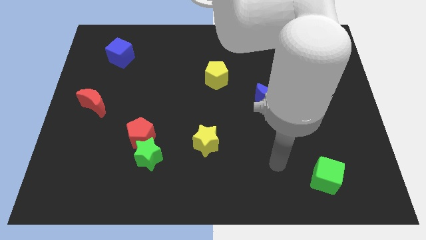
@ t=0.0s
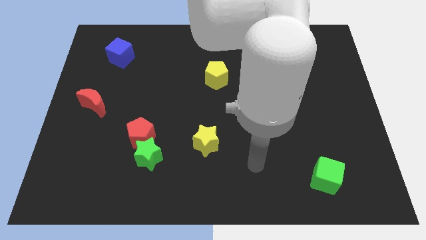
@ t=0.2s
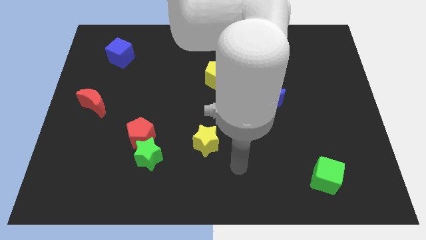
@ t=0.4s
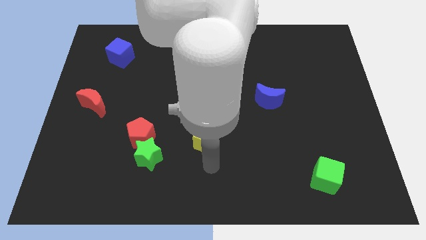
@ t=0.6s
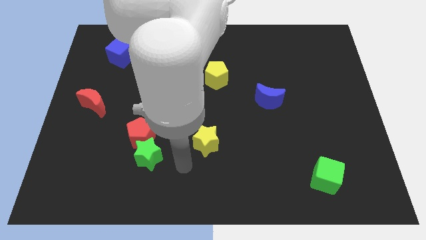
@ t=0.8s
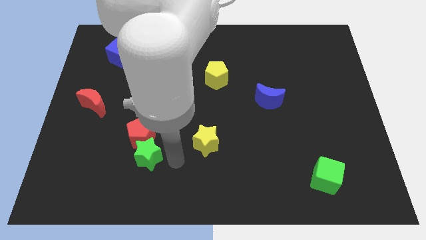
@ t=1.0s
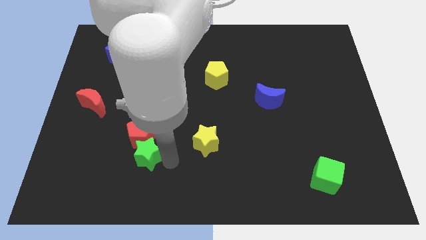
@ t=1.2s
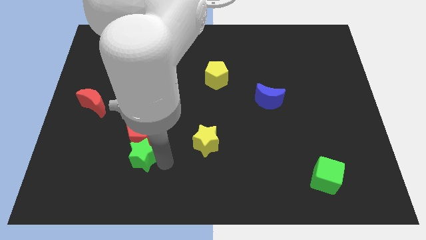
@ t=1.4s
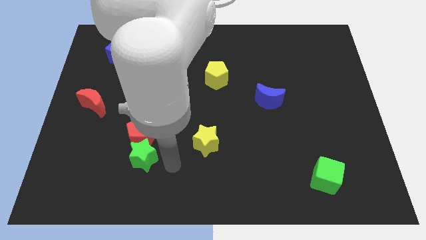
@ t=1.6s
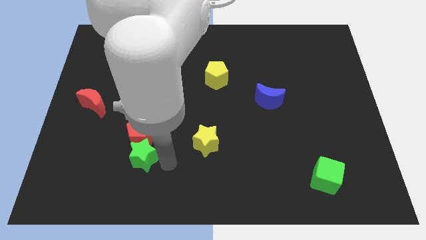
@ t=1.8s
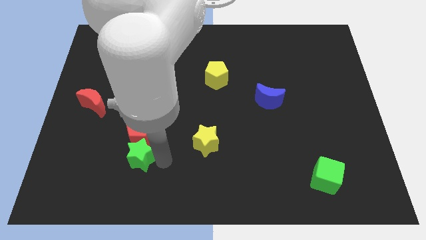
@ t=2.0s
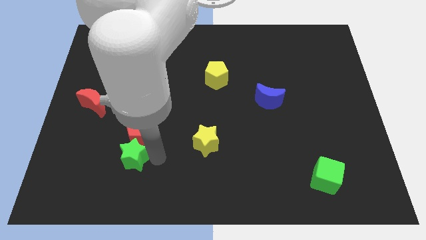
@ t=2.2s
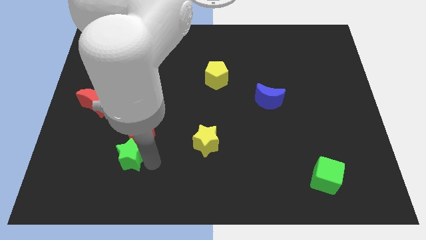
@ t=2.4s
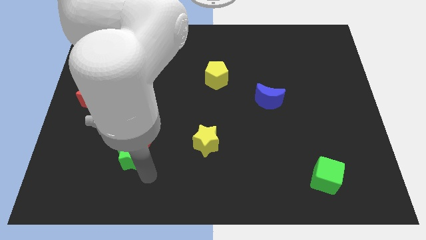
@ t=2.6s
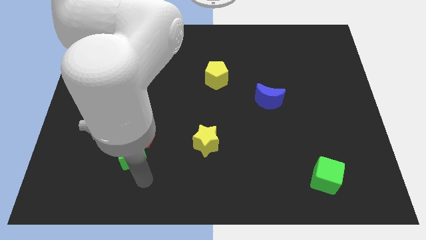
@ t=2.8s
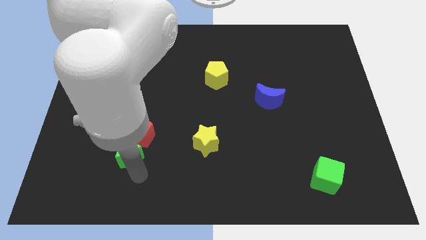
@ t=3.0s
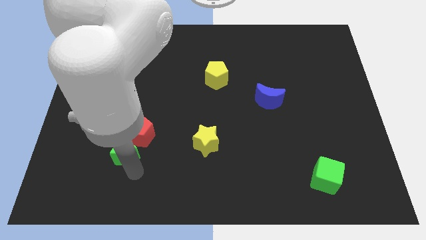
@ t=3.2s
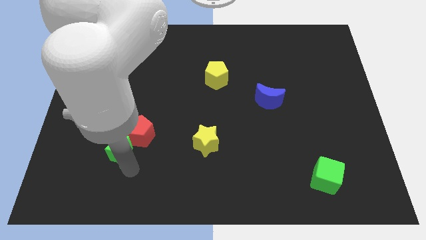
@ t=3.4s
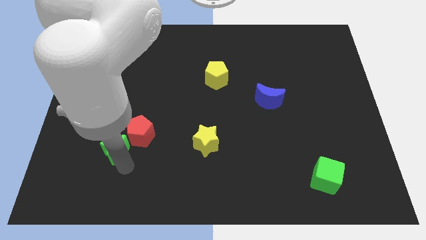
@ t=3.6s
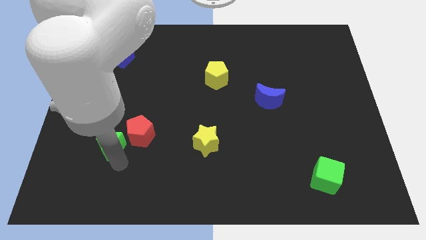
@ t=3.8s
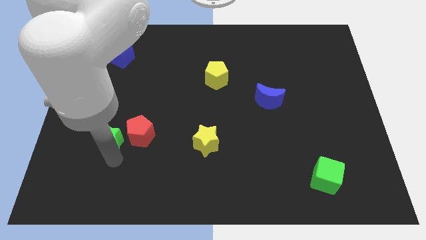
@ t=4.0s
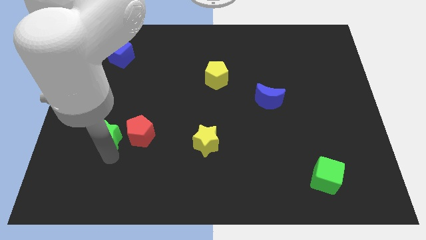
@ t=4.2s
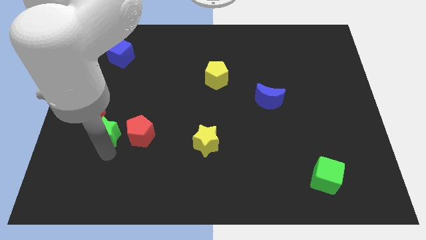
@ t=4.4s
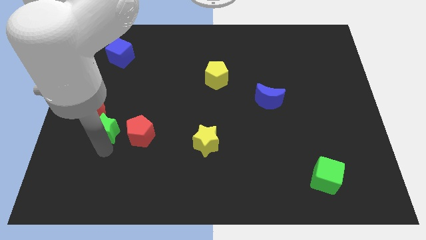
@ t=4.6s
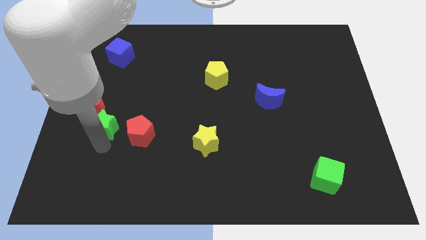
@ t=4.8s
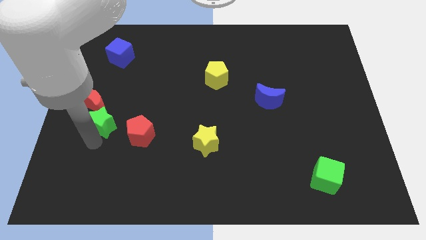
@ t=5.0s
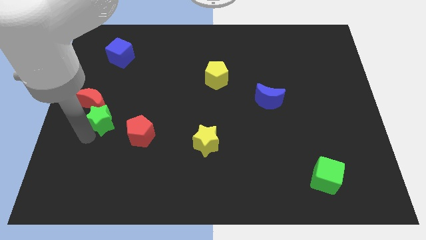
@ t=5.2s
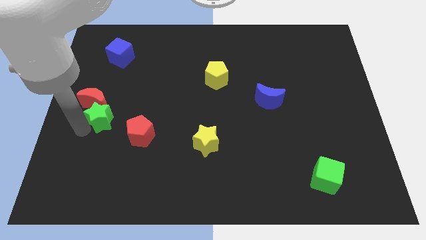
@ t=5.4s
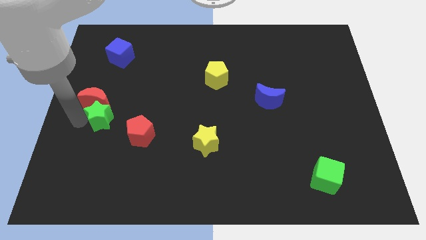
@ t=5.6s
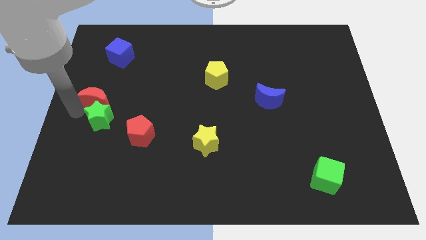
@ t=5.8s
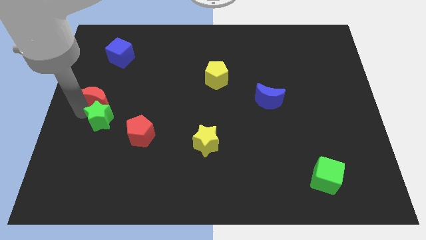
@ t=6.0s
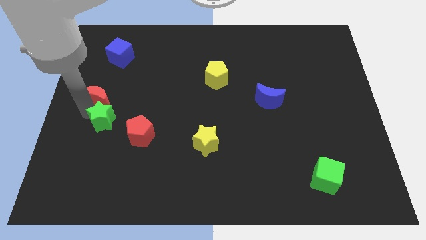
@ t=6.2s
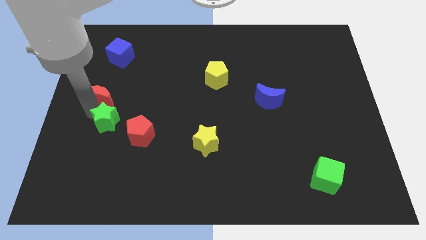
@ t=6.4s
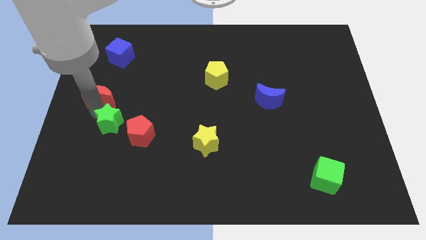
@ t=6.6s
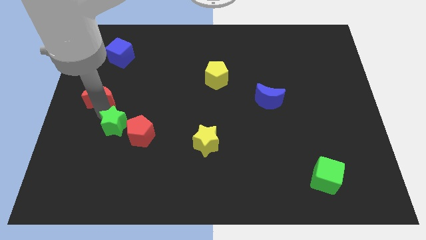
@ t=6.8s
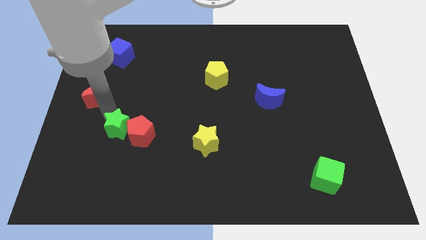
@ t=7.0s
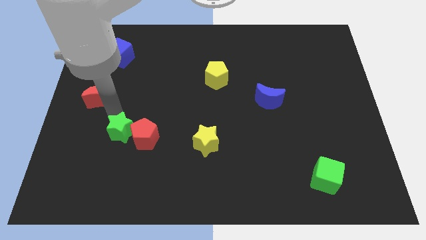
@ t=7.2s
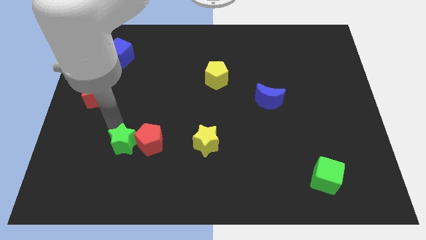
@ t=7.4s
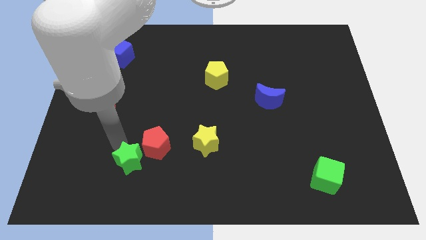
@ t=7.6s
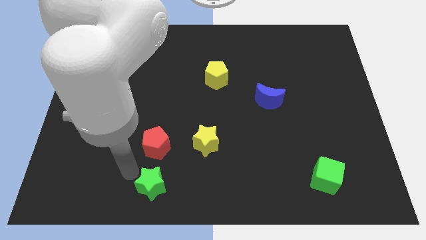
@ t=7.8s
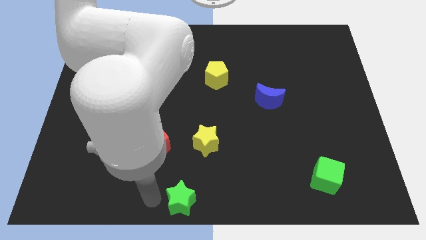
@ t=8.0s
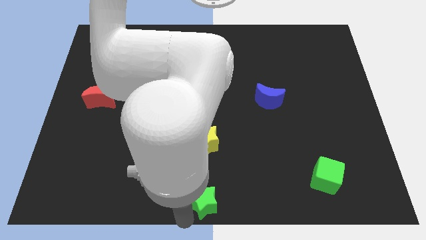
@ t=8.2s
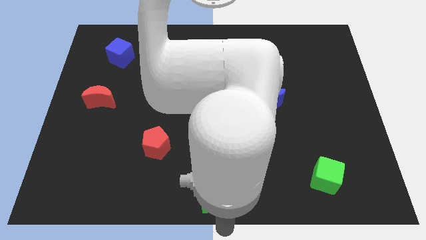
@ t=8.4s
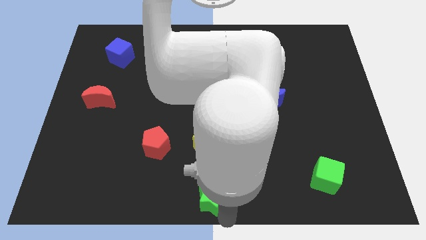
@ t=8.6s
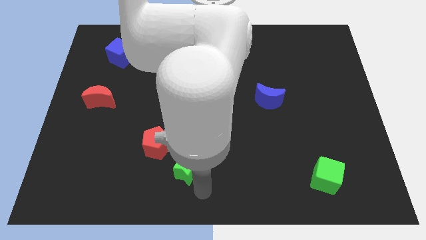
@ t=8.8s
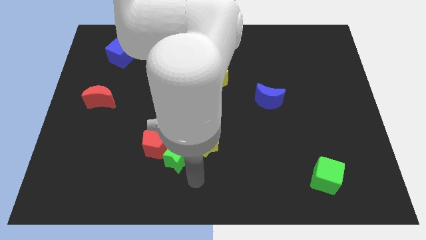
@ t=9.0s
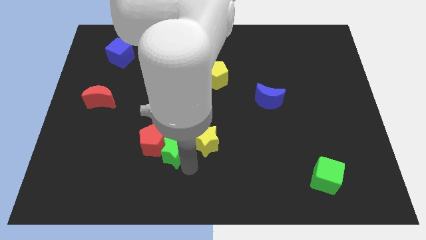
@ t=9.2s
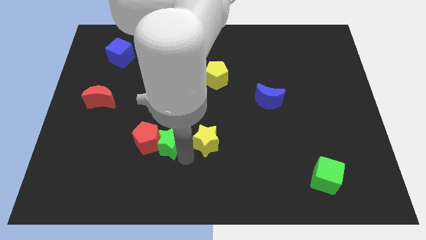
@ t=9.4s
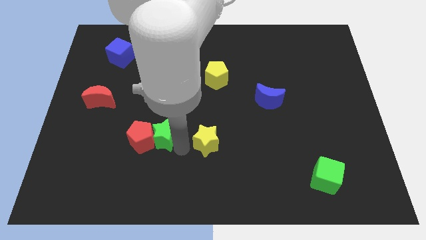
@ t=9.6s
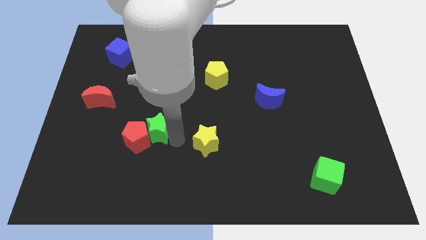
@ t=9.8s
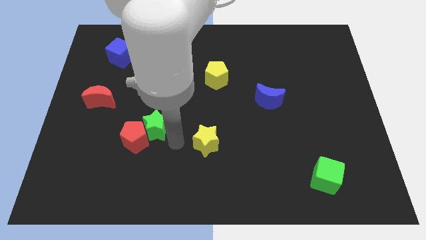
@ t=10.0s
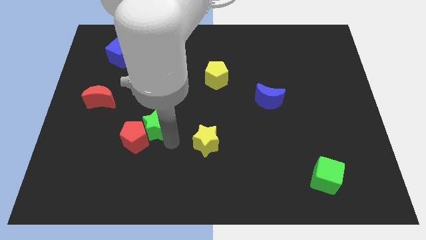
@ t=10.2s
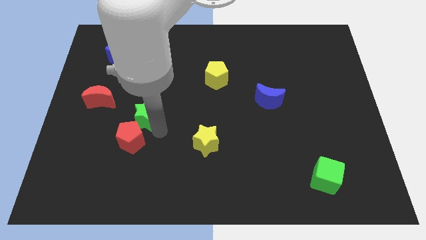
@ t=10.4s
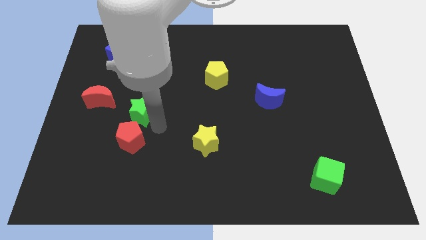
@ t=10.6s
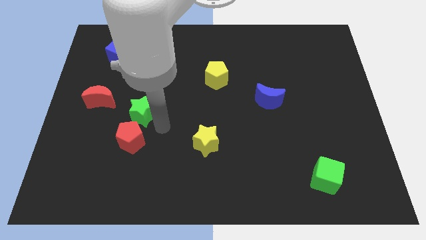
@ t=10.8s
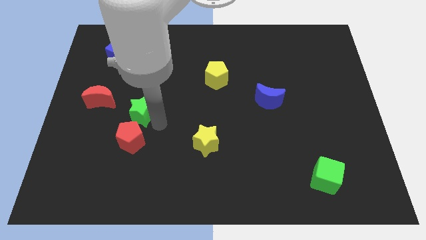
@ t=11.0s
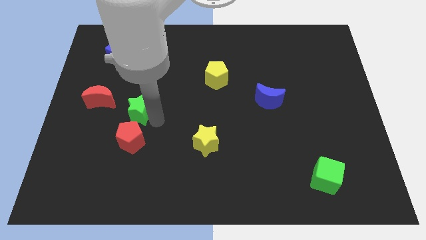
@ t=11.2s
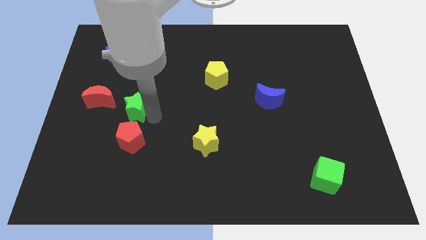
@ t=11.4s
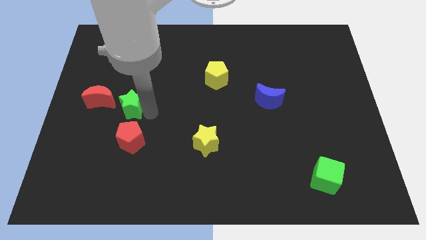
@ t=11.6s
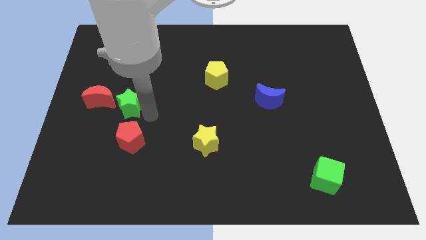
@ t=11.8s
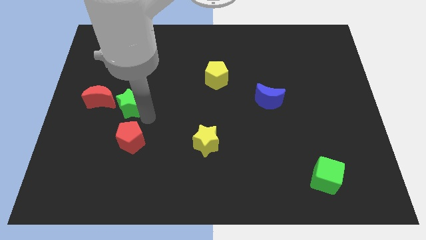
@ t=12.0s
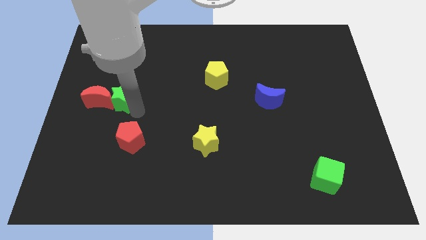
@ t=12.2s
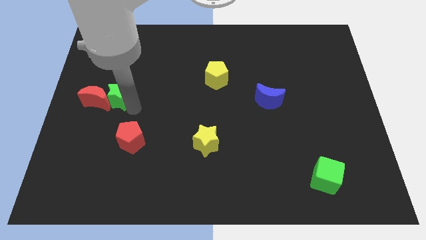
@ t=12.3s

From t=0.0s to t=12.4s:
move the green star to the bottom of the blue cube

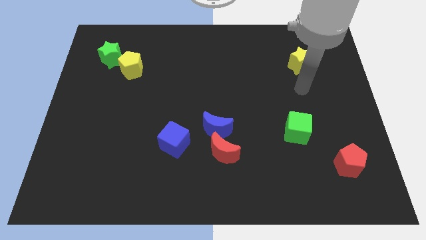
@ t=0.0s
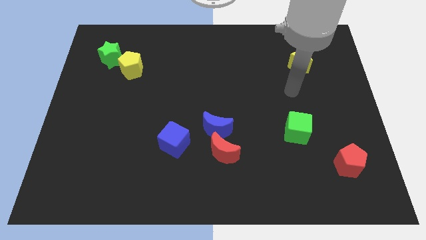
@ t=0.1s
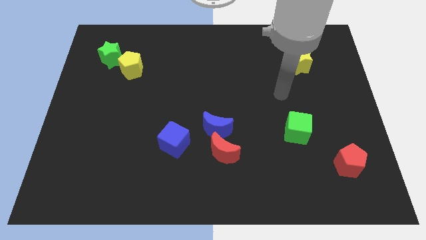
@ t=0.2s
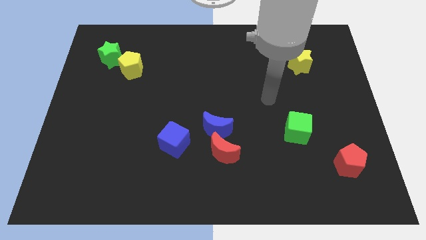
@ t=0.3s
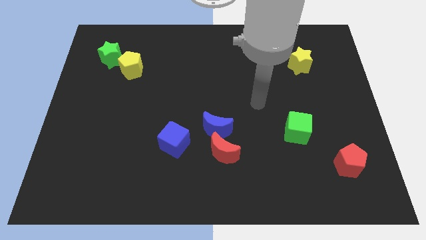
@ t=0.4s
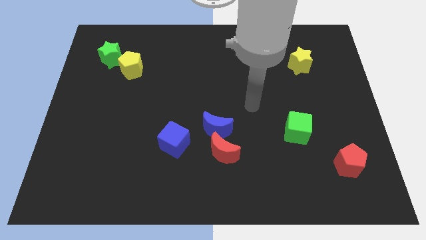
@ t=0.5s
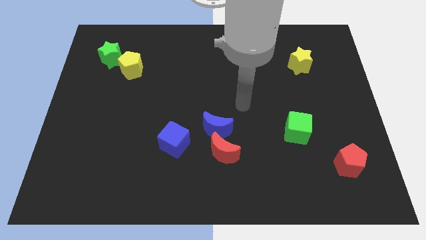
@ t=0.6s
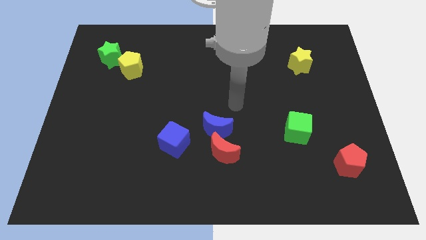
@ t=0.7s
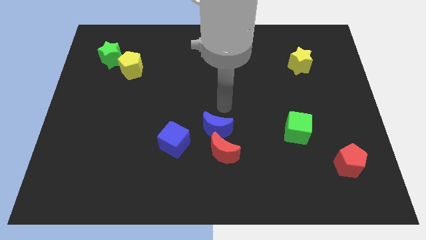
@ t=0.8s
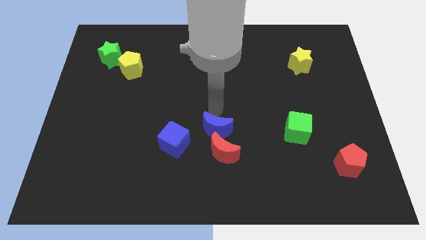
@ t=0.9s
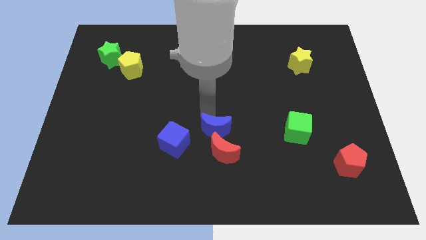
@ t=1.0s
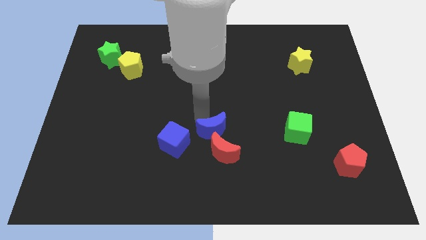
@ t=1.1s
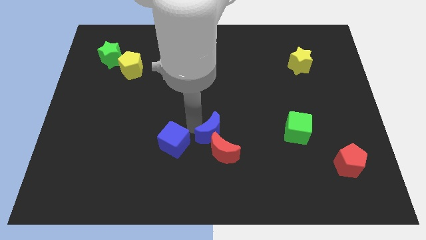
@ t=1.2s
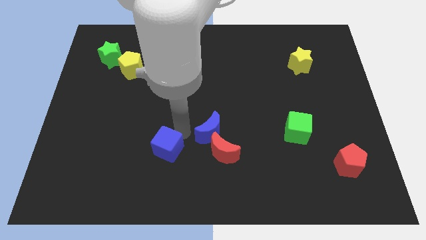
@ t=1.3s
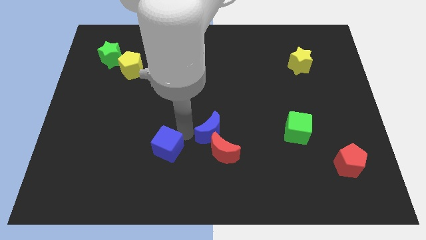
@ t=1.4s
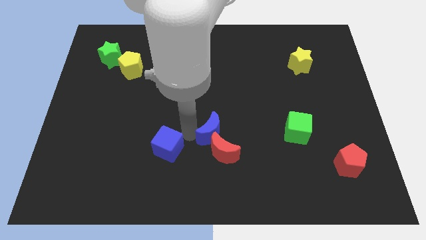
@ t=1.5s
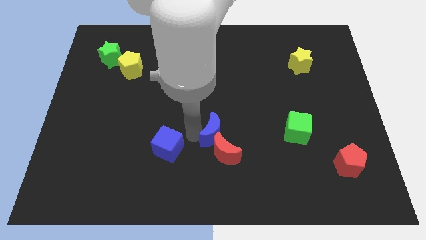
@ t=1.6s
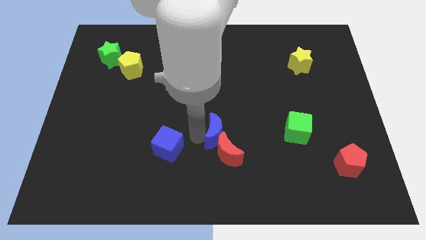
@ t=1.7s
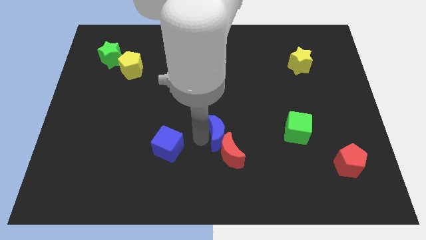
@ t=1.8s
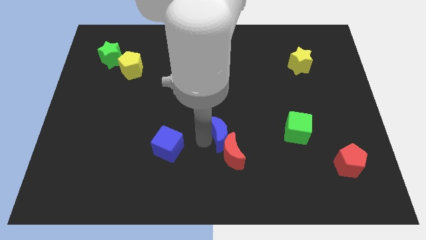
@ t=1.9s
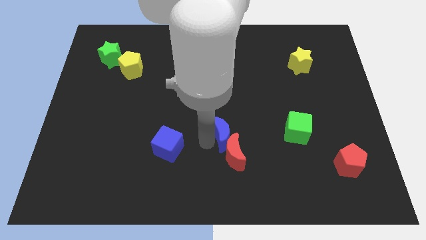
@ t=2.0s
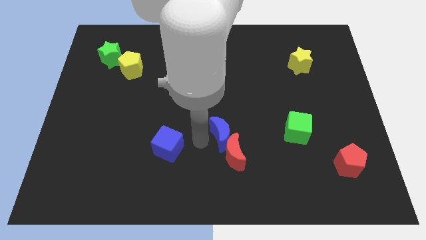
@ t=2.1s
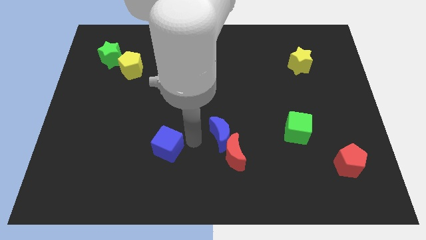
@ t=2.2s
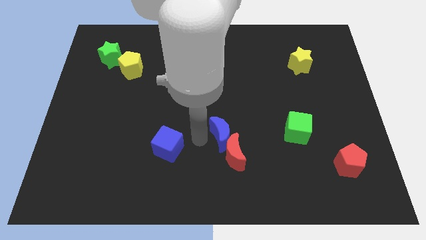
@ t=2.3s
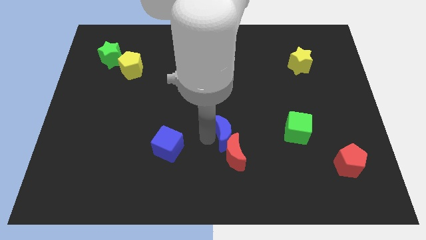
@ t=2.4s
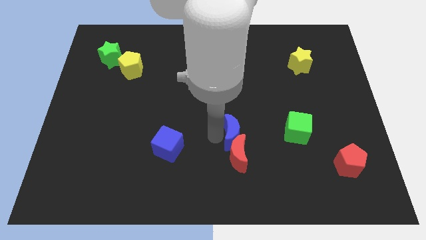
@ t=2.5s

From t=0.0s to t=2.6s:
push the blue moon just left of the green cube
